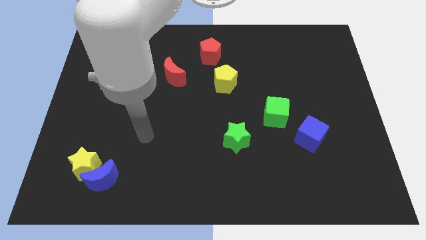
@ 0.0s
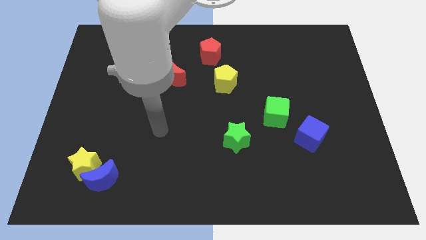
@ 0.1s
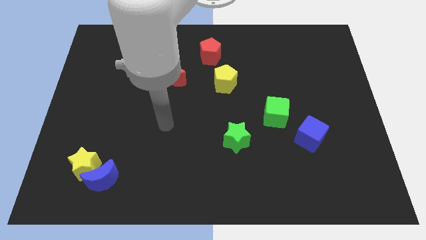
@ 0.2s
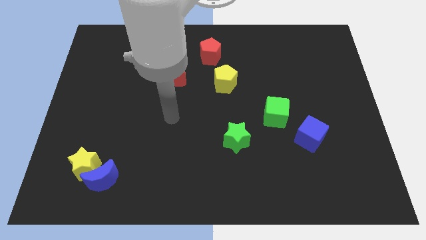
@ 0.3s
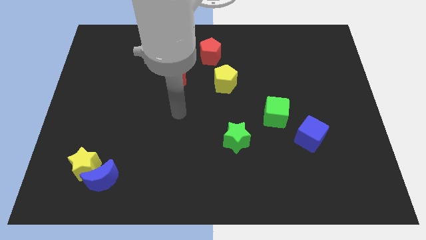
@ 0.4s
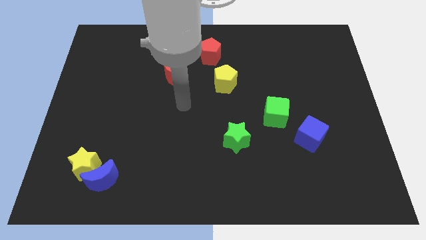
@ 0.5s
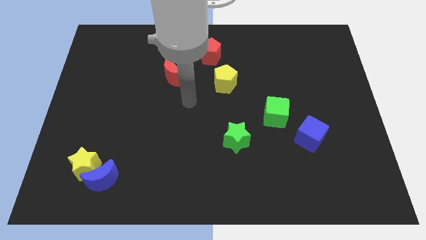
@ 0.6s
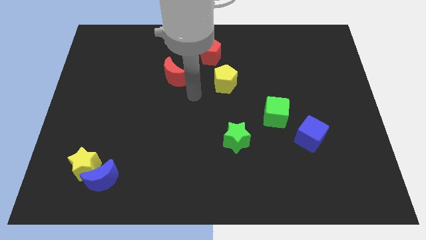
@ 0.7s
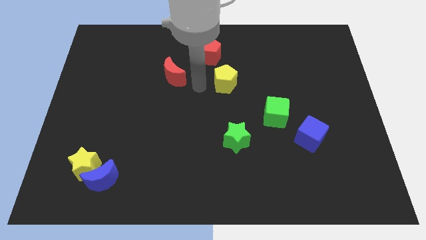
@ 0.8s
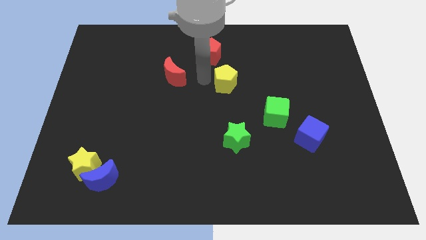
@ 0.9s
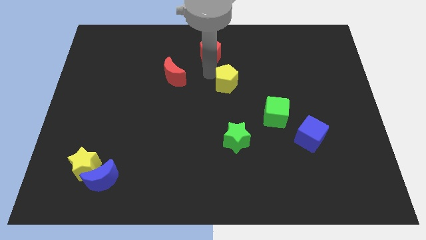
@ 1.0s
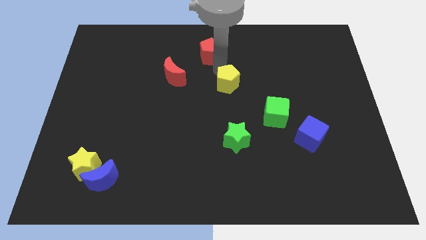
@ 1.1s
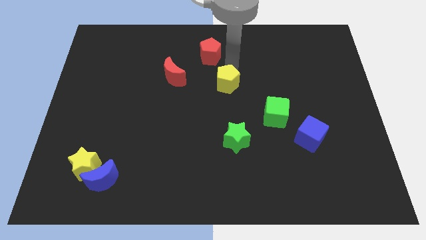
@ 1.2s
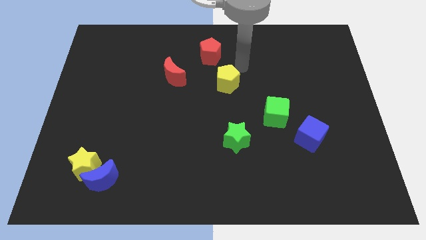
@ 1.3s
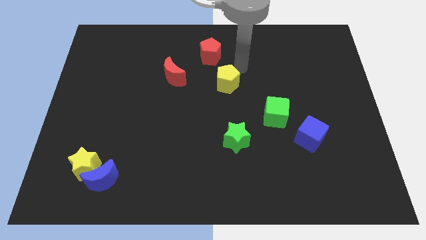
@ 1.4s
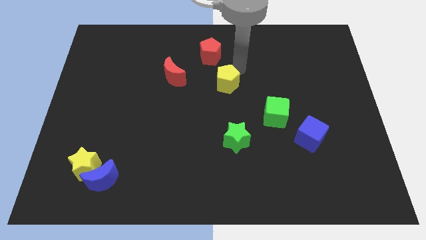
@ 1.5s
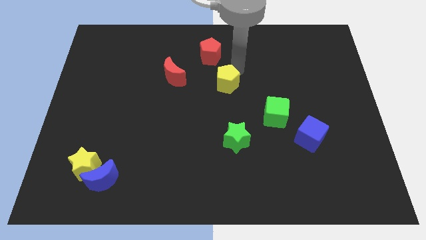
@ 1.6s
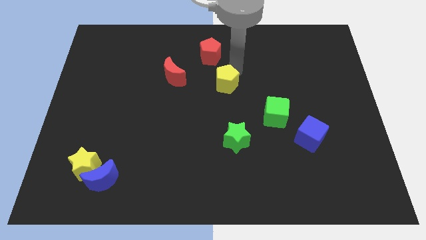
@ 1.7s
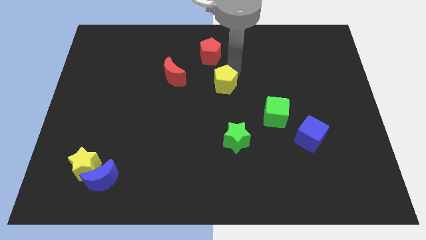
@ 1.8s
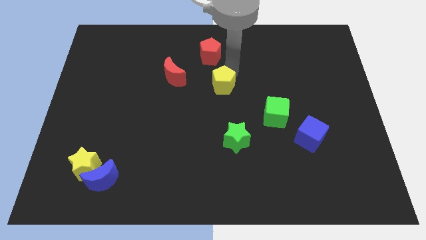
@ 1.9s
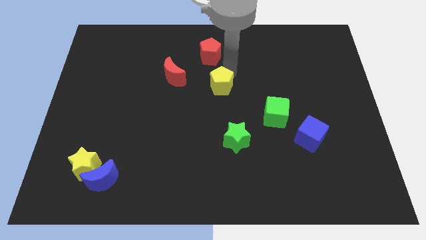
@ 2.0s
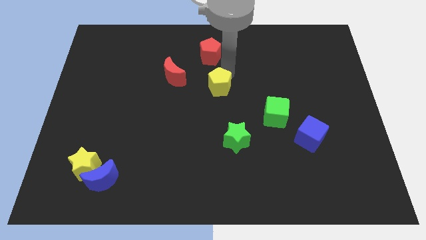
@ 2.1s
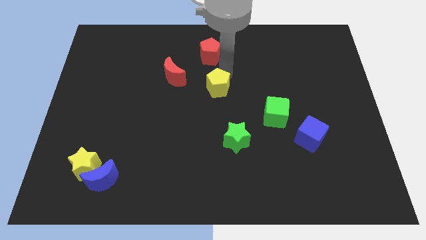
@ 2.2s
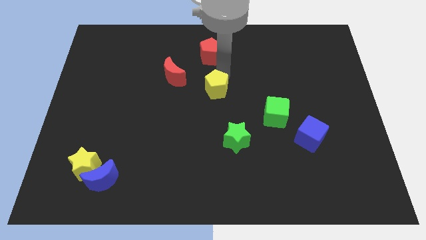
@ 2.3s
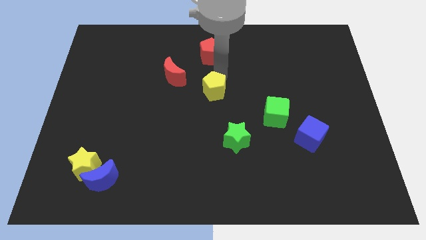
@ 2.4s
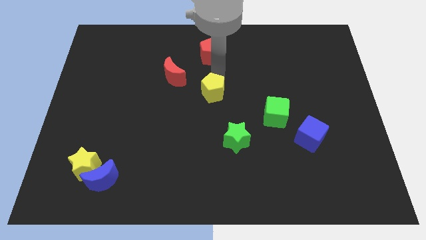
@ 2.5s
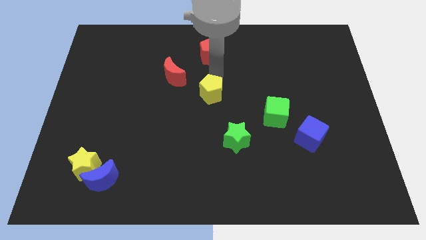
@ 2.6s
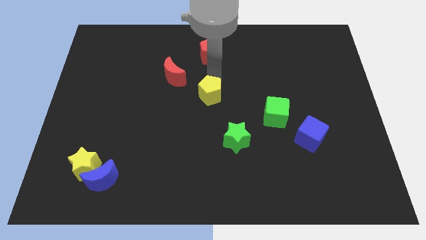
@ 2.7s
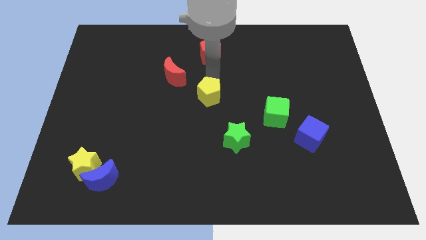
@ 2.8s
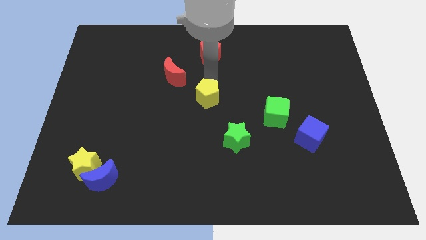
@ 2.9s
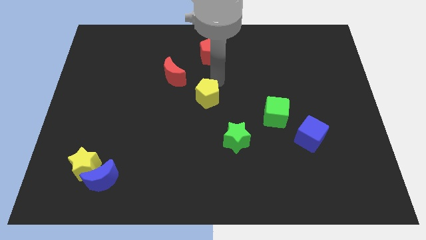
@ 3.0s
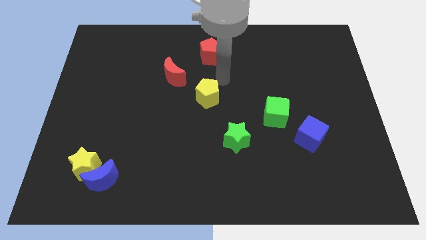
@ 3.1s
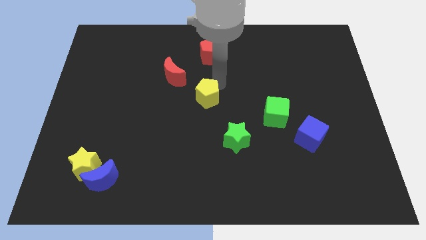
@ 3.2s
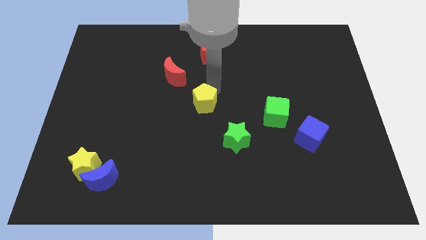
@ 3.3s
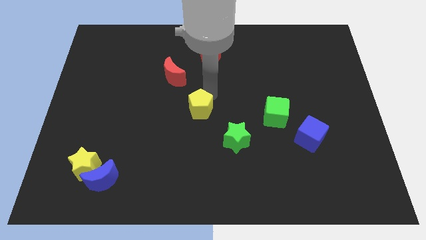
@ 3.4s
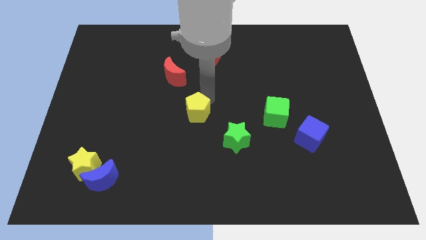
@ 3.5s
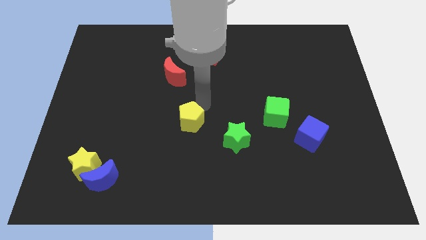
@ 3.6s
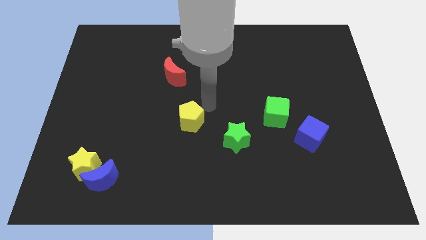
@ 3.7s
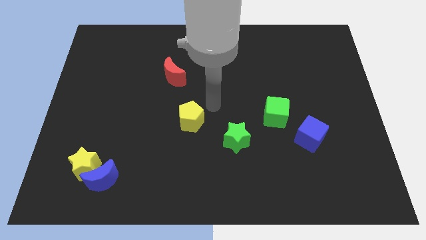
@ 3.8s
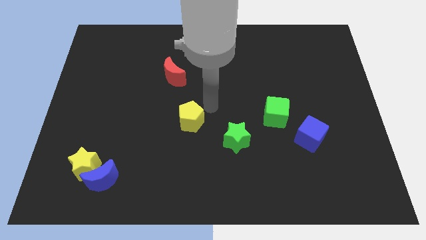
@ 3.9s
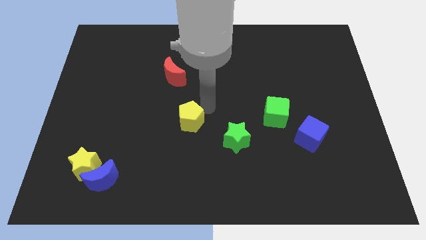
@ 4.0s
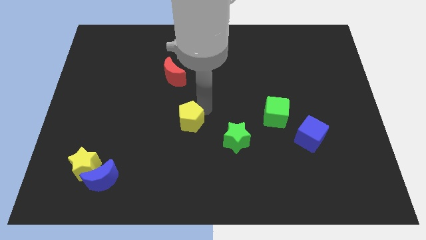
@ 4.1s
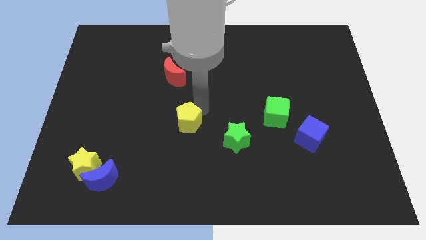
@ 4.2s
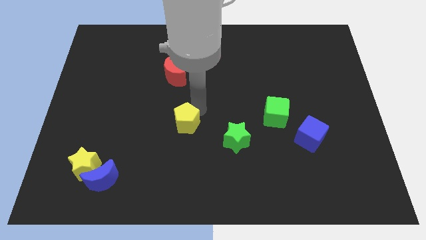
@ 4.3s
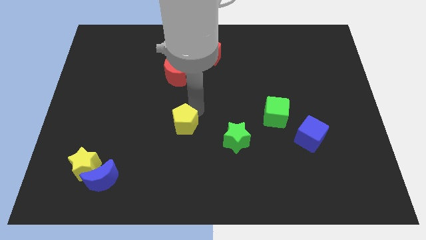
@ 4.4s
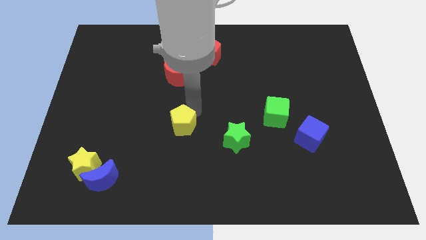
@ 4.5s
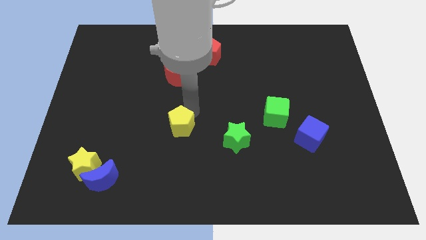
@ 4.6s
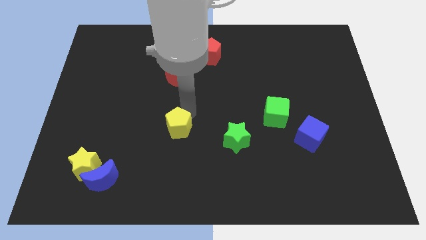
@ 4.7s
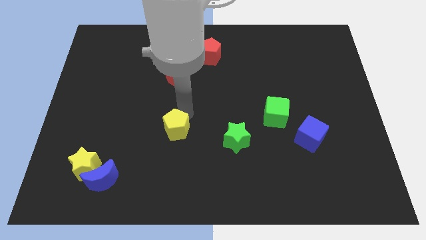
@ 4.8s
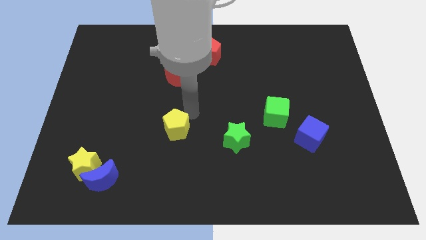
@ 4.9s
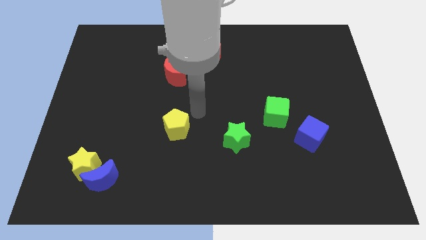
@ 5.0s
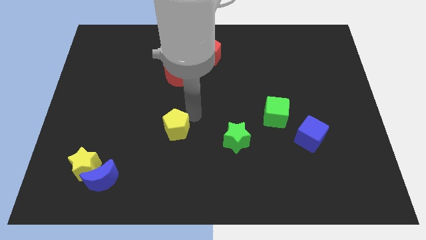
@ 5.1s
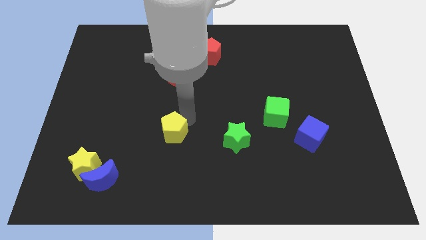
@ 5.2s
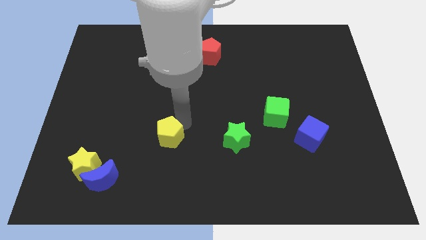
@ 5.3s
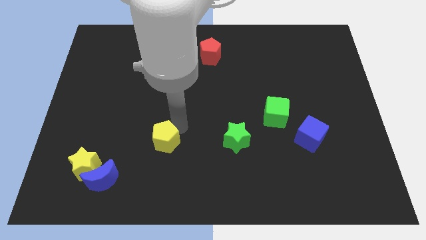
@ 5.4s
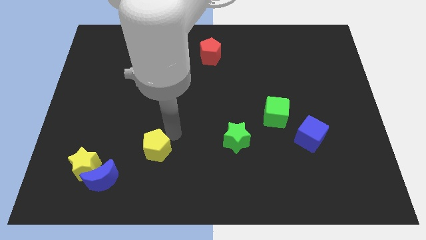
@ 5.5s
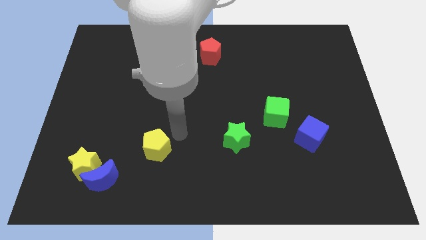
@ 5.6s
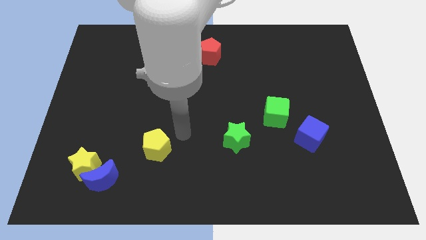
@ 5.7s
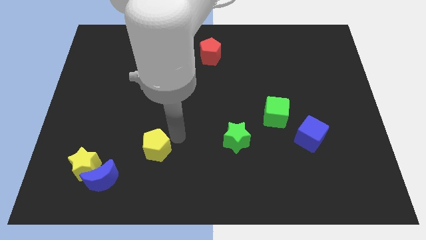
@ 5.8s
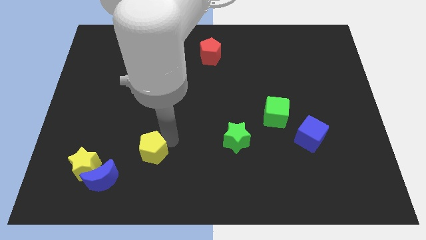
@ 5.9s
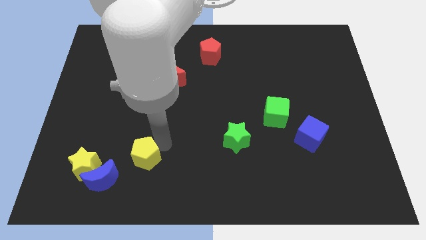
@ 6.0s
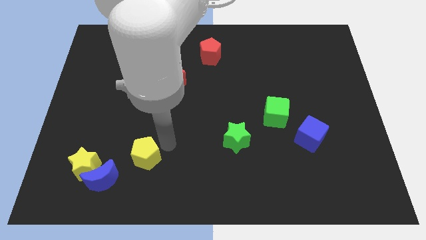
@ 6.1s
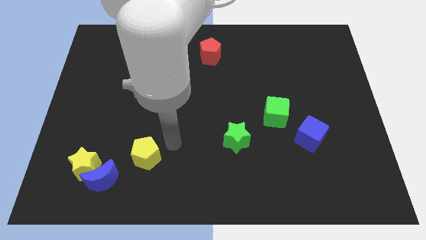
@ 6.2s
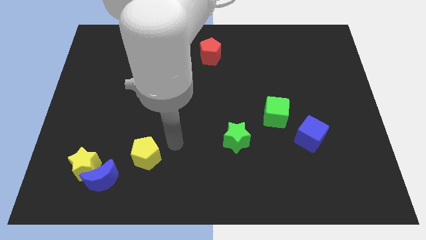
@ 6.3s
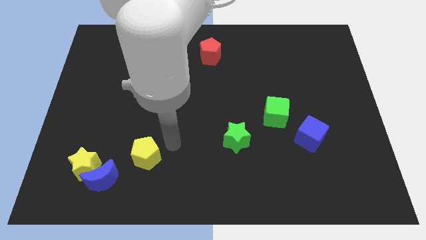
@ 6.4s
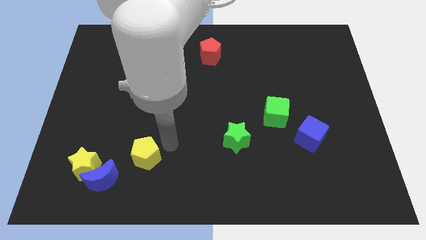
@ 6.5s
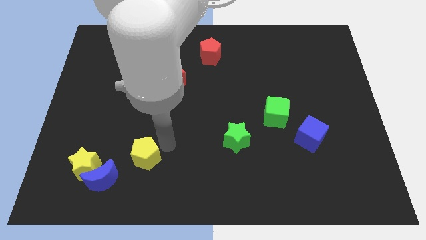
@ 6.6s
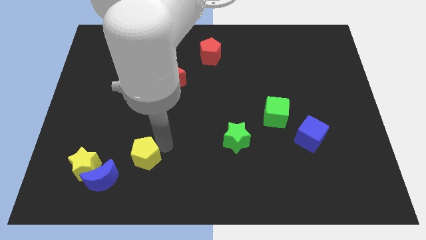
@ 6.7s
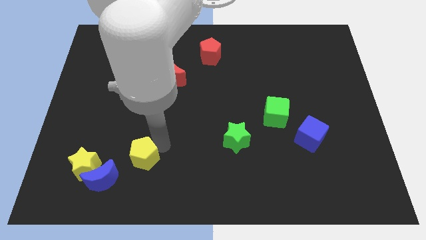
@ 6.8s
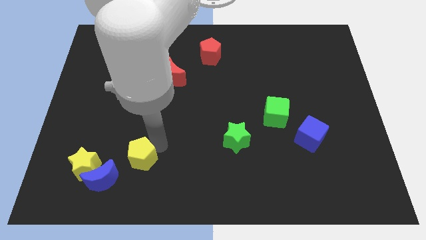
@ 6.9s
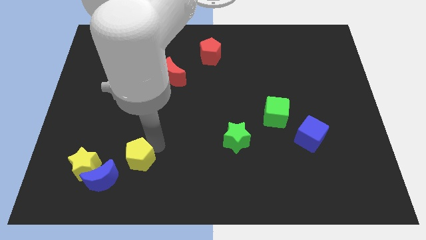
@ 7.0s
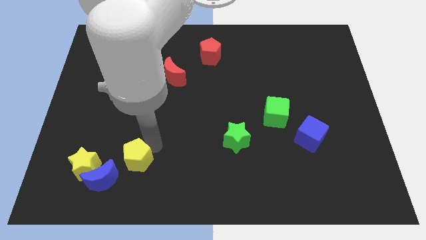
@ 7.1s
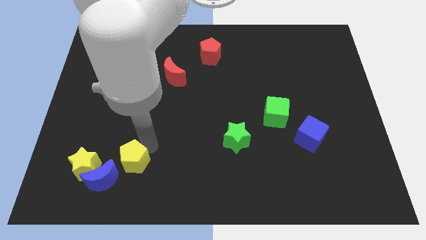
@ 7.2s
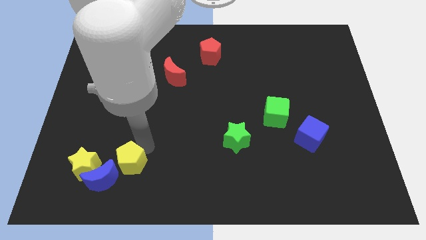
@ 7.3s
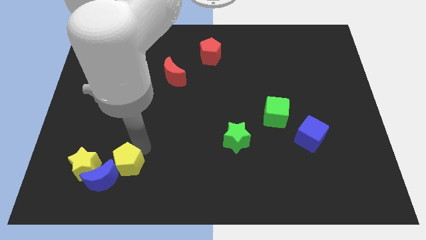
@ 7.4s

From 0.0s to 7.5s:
move the yellow pentagon next to the blue moon
